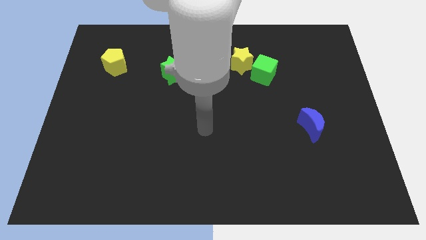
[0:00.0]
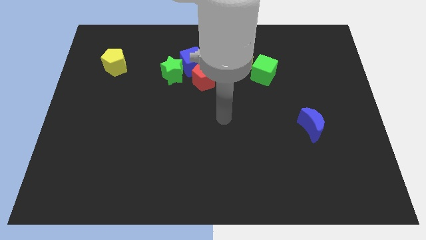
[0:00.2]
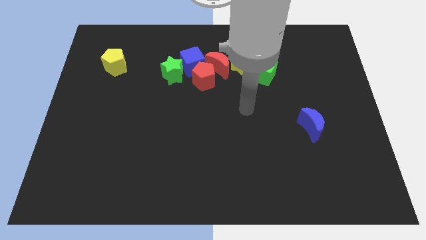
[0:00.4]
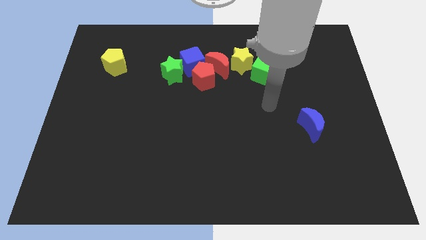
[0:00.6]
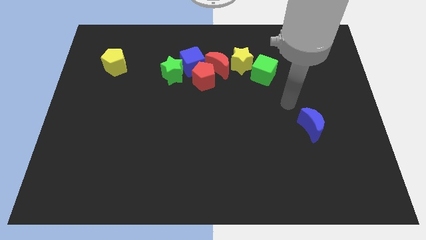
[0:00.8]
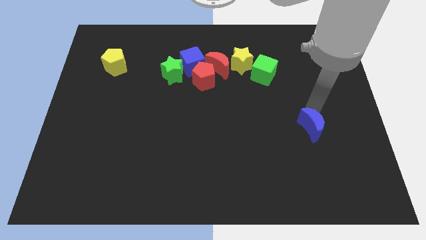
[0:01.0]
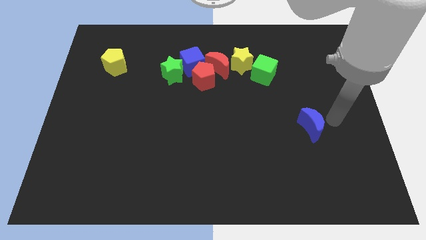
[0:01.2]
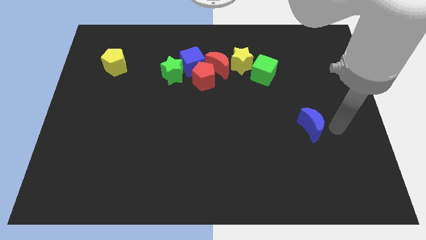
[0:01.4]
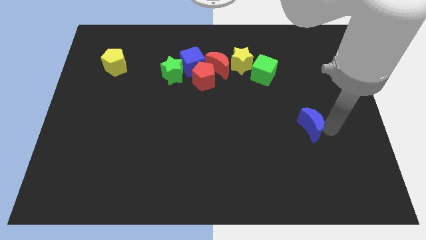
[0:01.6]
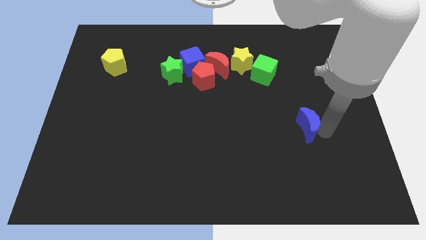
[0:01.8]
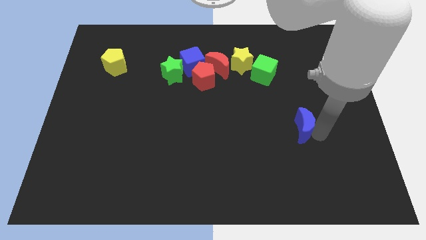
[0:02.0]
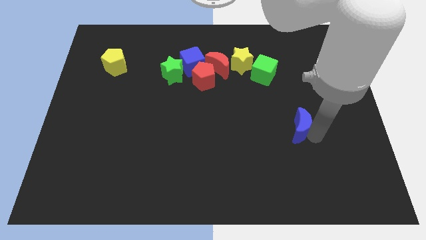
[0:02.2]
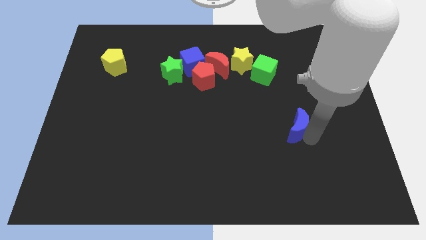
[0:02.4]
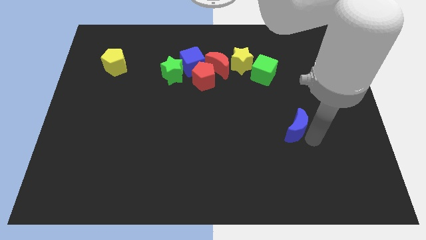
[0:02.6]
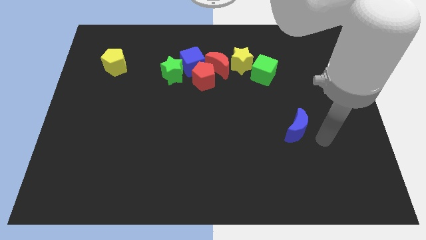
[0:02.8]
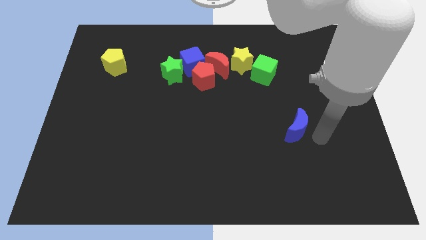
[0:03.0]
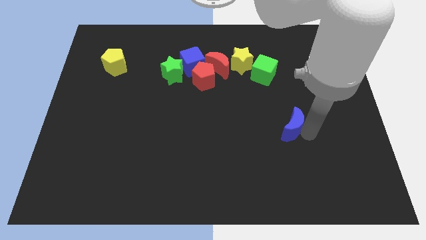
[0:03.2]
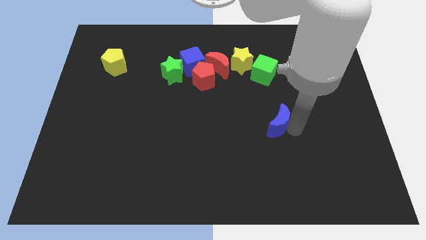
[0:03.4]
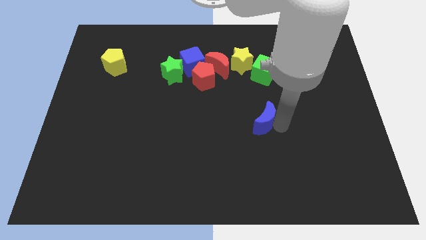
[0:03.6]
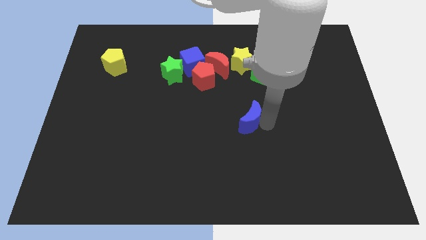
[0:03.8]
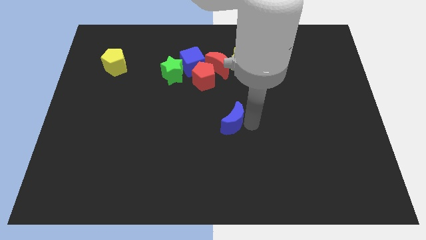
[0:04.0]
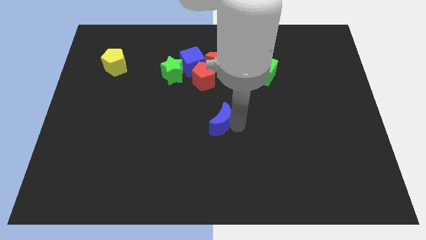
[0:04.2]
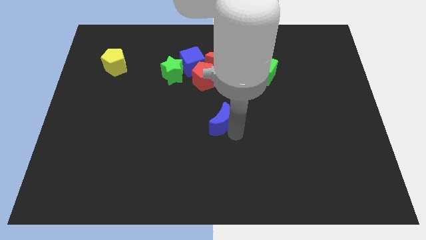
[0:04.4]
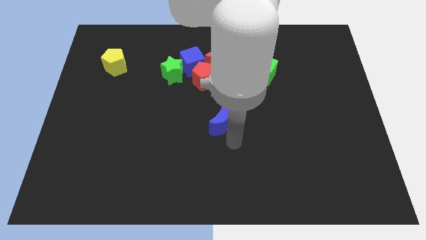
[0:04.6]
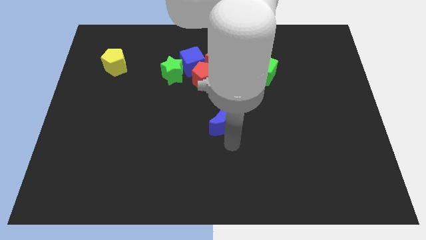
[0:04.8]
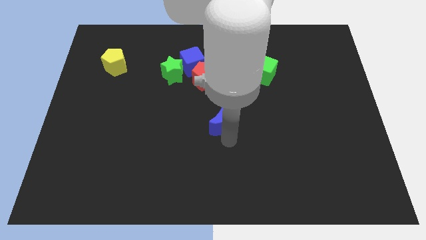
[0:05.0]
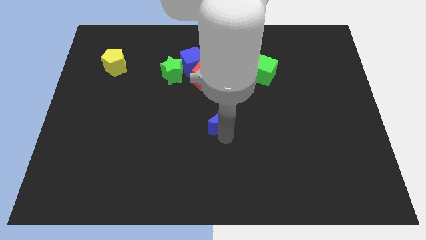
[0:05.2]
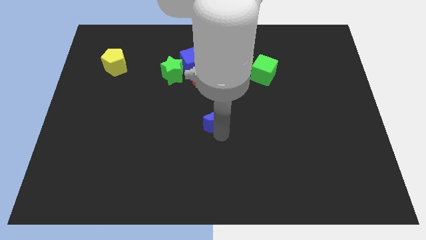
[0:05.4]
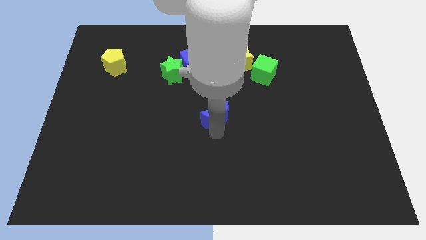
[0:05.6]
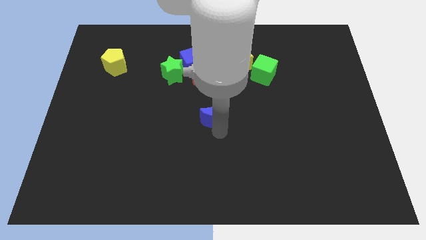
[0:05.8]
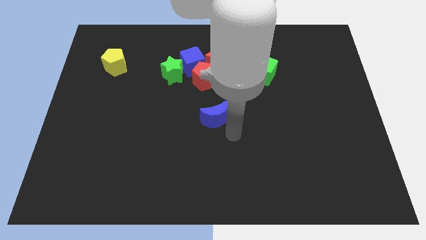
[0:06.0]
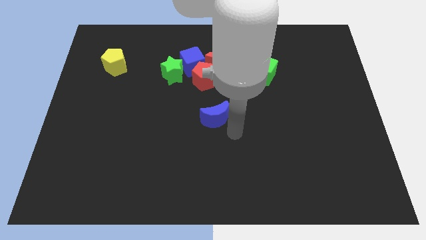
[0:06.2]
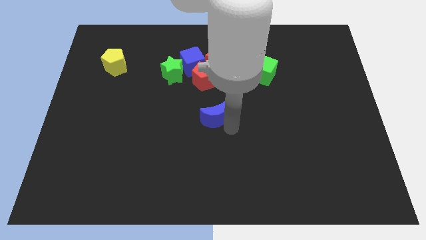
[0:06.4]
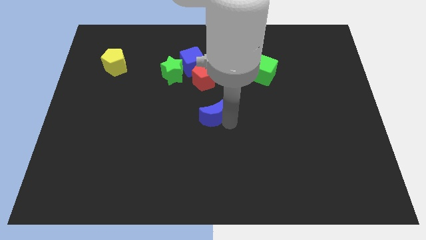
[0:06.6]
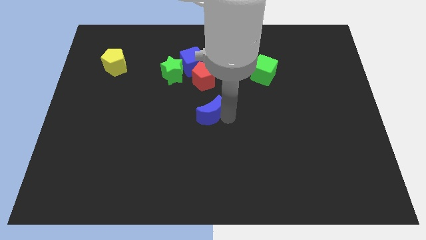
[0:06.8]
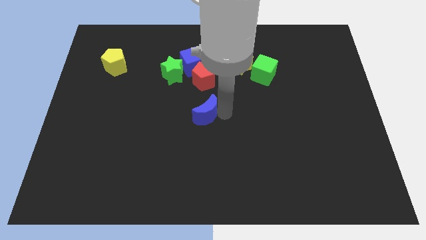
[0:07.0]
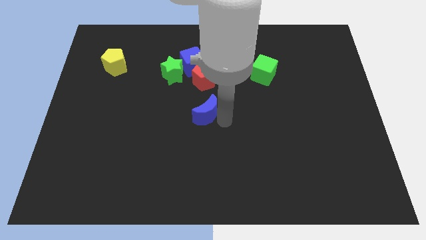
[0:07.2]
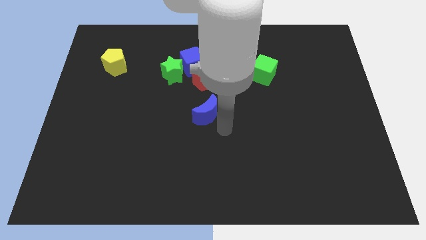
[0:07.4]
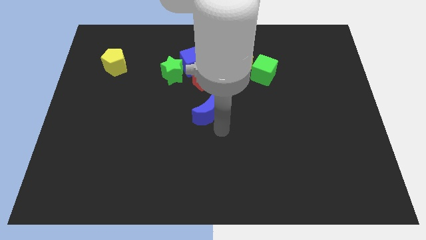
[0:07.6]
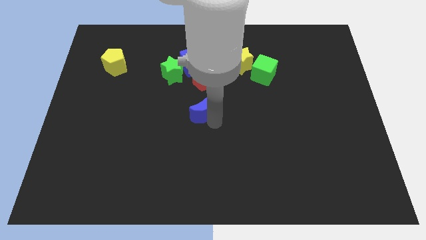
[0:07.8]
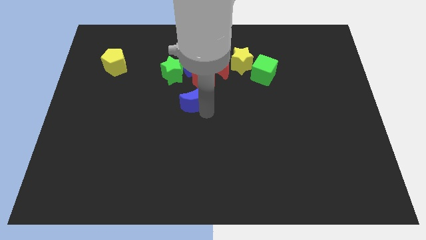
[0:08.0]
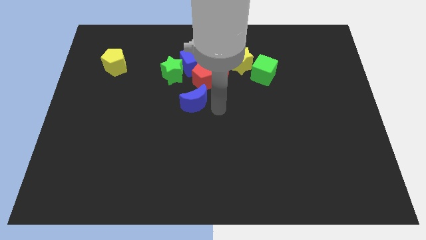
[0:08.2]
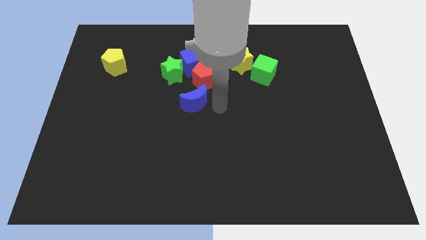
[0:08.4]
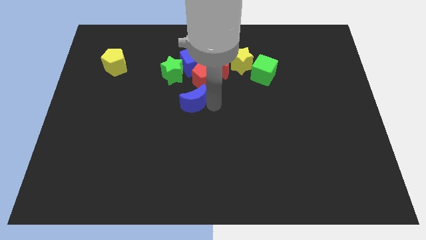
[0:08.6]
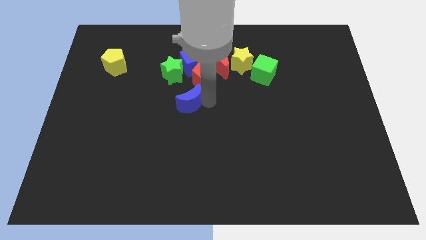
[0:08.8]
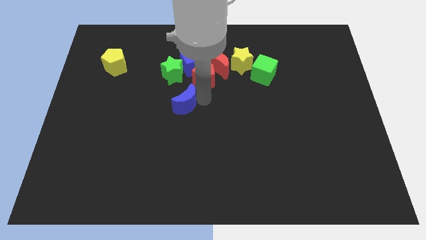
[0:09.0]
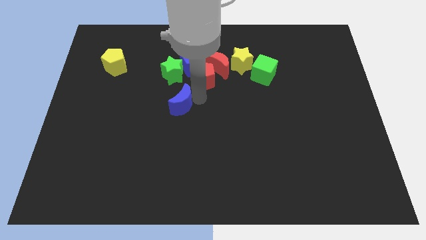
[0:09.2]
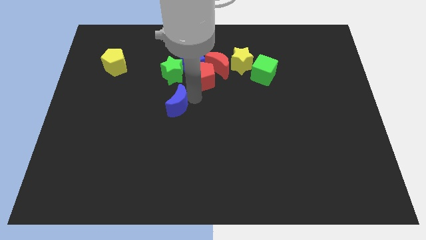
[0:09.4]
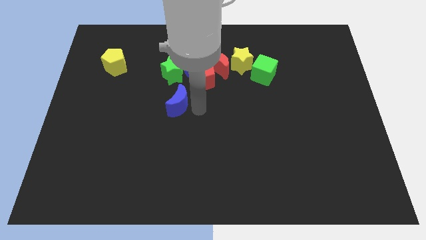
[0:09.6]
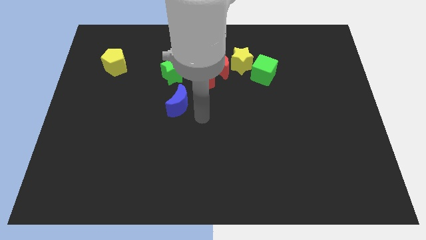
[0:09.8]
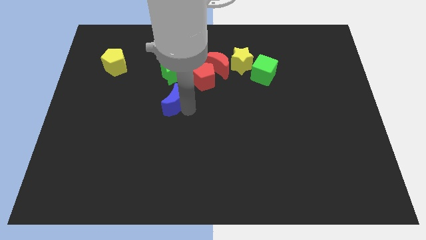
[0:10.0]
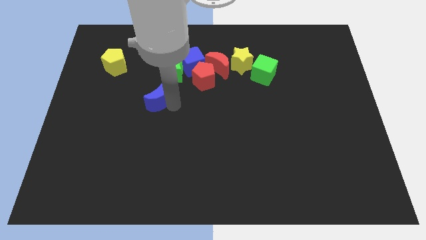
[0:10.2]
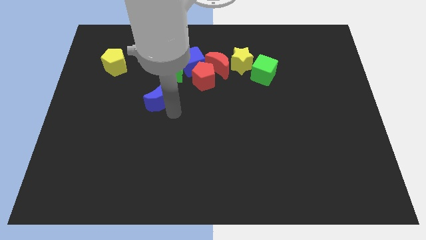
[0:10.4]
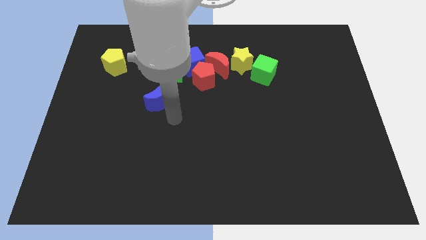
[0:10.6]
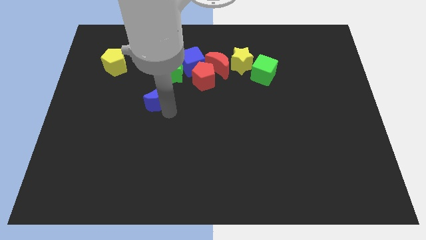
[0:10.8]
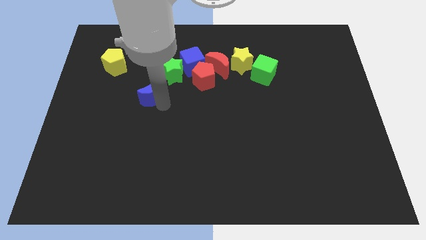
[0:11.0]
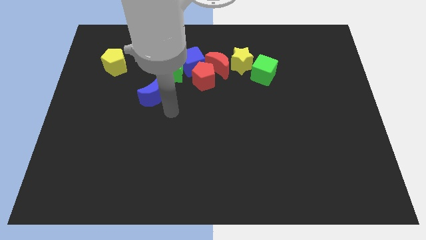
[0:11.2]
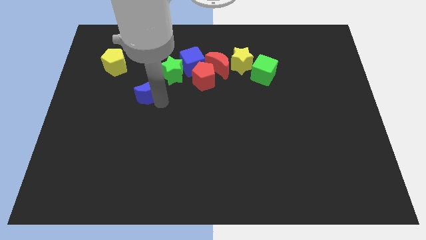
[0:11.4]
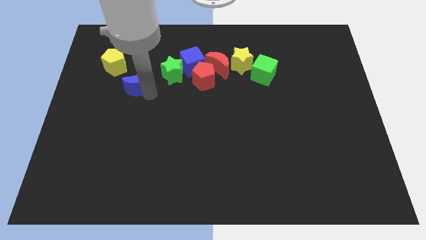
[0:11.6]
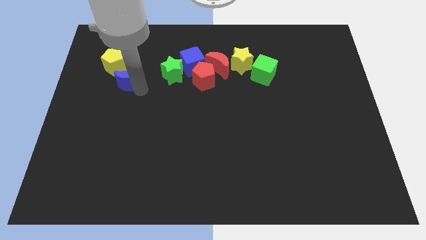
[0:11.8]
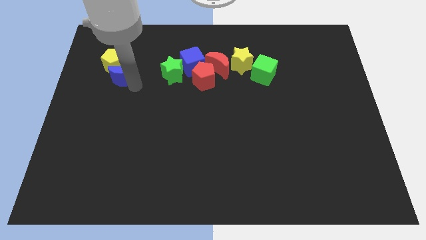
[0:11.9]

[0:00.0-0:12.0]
slide the blue moon close to the yellow pentagon

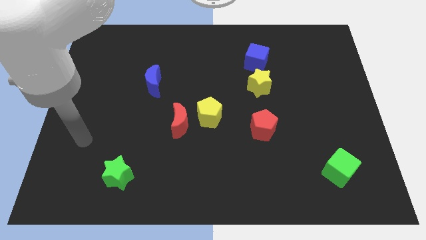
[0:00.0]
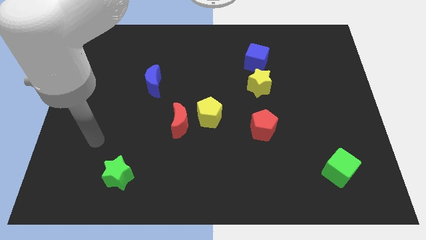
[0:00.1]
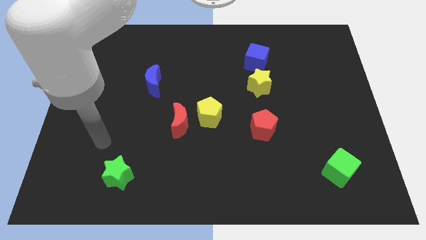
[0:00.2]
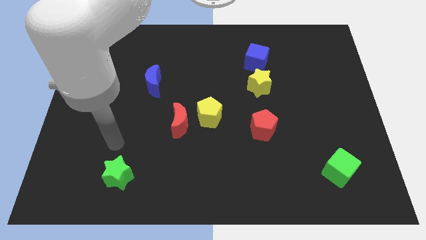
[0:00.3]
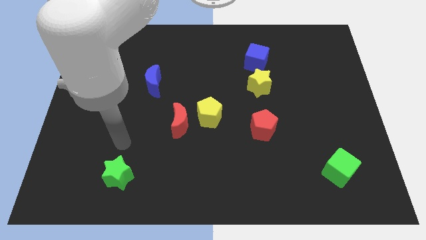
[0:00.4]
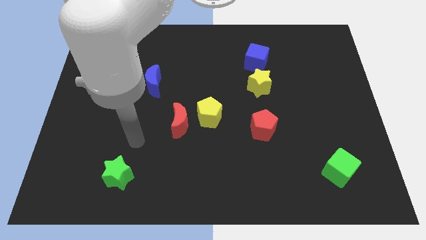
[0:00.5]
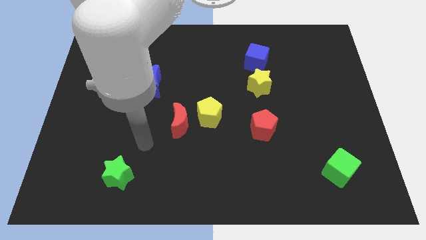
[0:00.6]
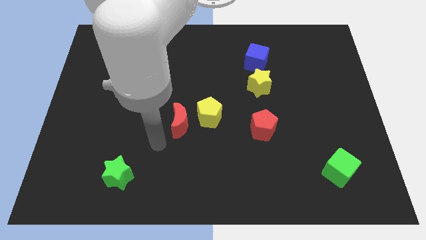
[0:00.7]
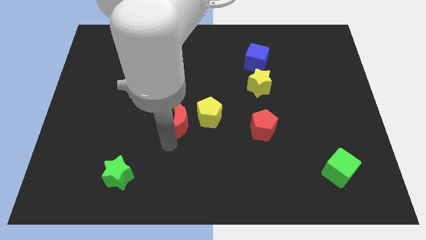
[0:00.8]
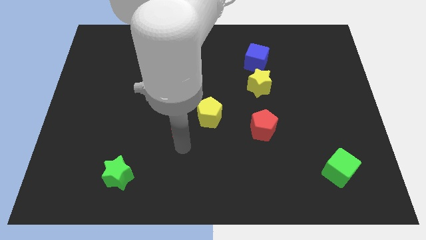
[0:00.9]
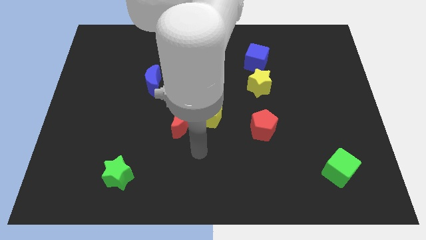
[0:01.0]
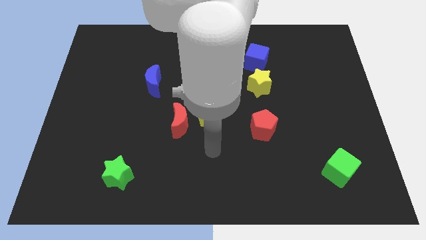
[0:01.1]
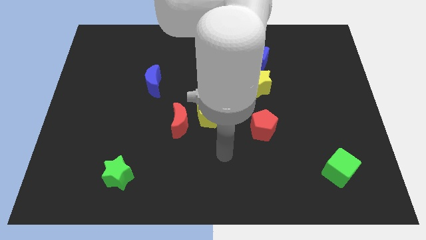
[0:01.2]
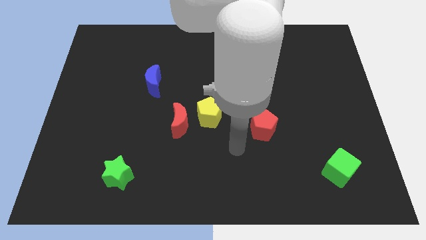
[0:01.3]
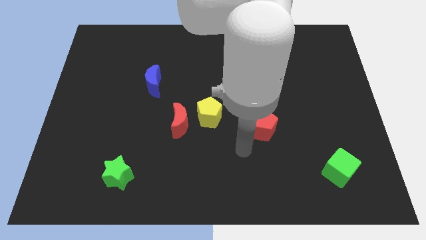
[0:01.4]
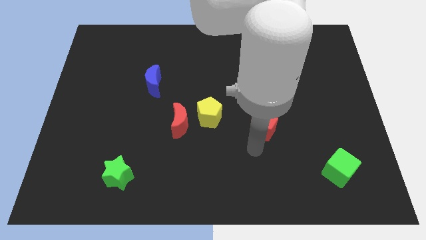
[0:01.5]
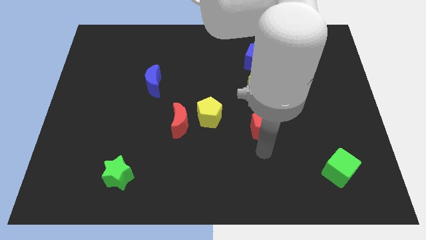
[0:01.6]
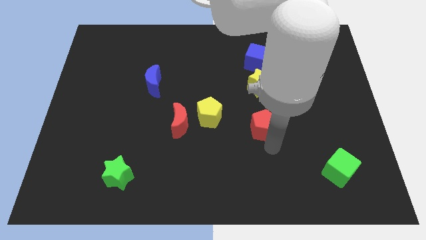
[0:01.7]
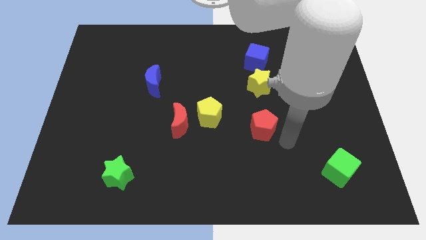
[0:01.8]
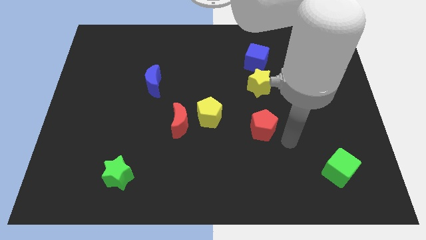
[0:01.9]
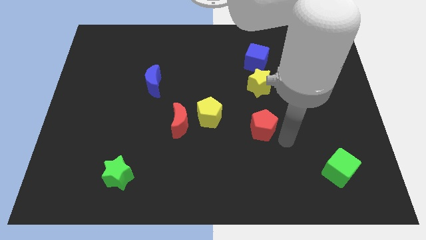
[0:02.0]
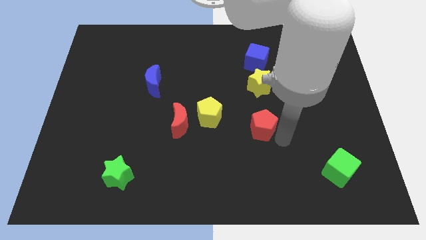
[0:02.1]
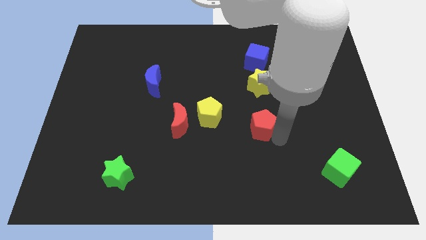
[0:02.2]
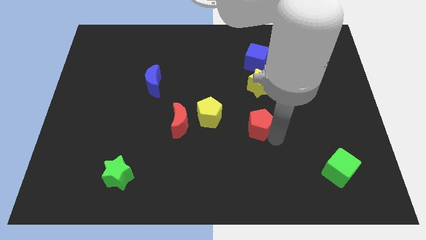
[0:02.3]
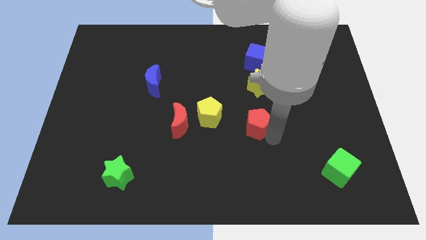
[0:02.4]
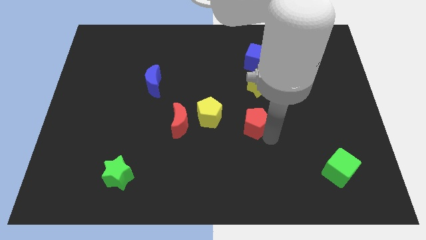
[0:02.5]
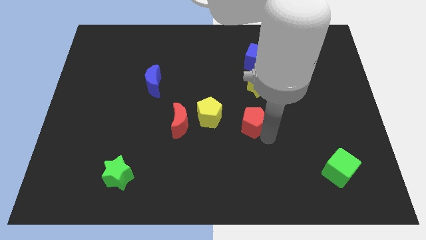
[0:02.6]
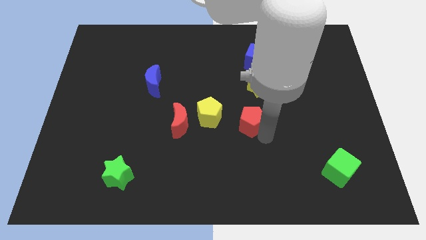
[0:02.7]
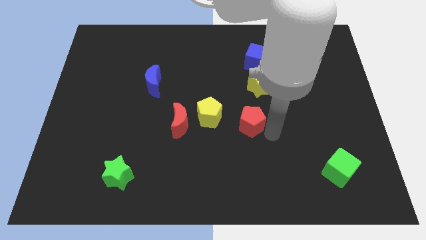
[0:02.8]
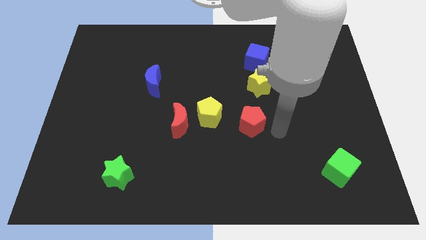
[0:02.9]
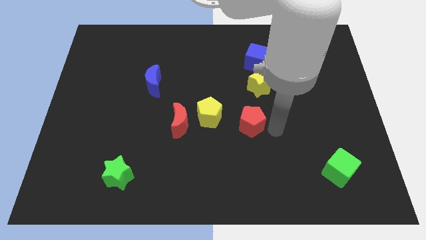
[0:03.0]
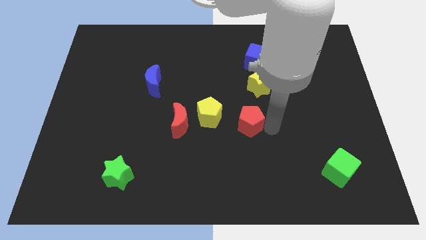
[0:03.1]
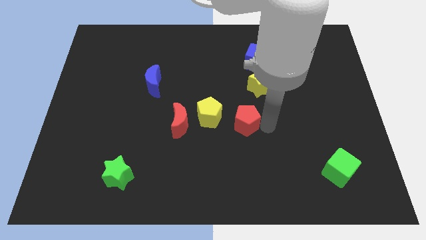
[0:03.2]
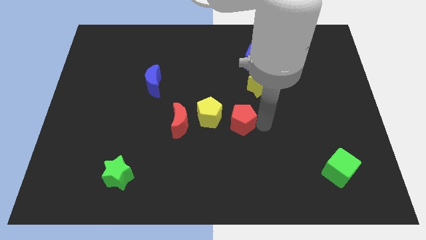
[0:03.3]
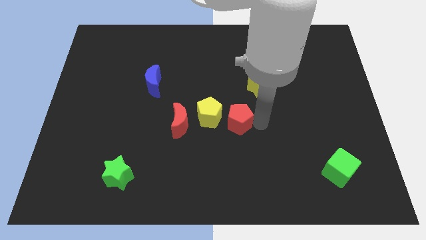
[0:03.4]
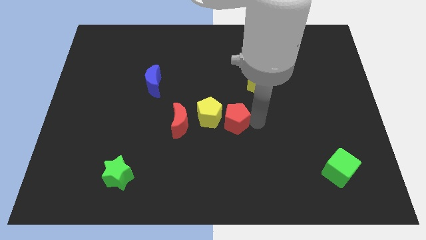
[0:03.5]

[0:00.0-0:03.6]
move the red pentagon towards the yellow pentagon
